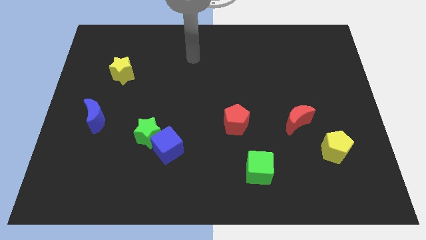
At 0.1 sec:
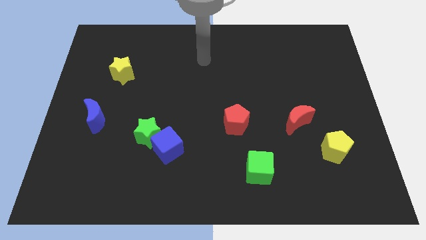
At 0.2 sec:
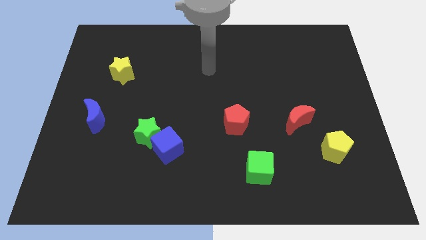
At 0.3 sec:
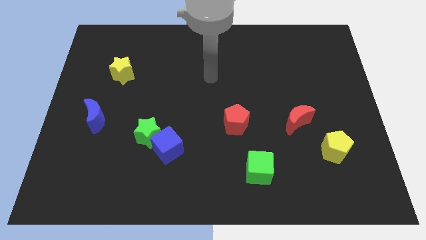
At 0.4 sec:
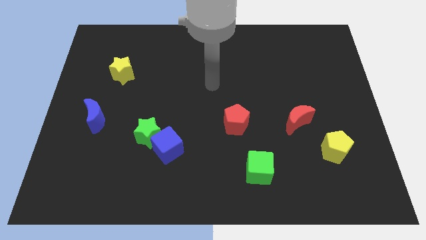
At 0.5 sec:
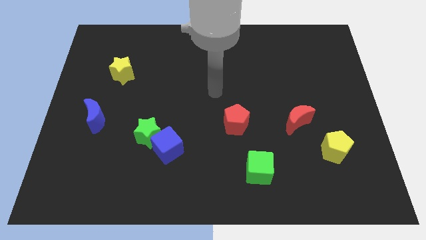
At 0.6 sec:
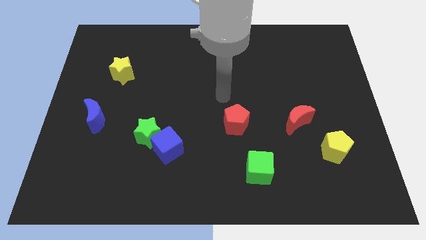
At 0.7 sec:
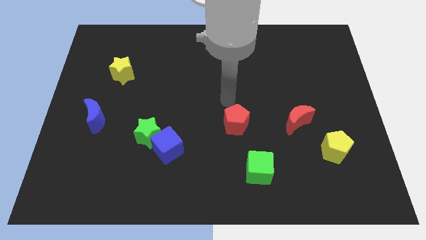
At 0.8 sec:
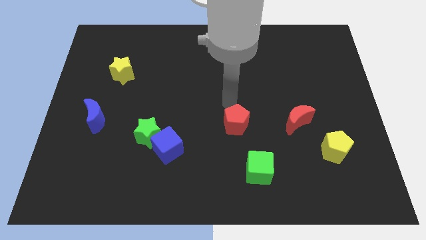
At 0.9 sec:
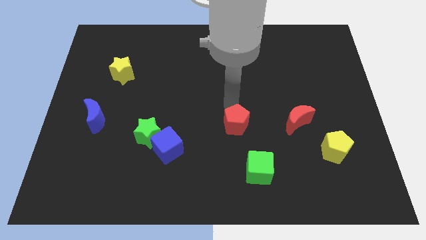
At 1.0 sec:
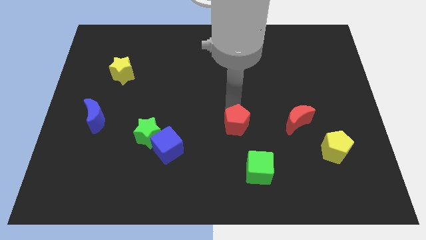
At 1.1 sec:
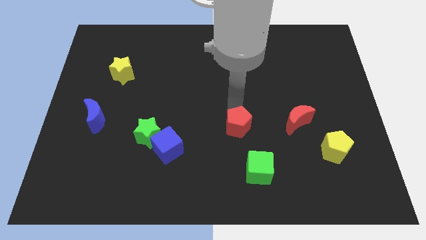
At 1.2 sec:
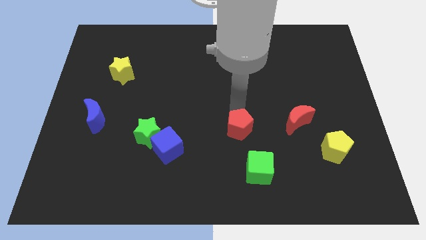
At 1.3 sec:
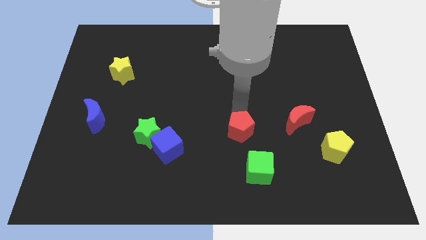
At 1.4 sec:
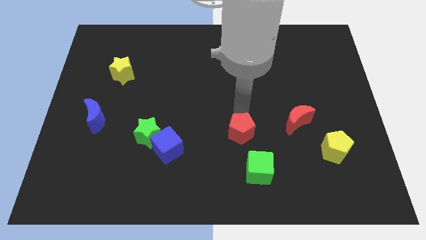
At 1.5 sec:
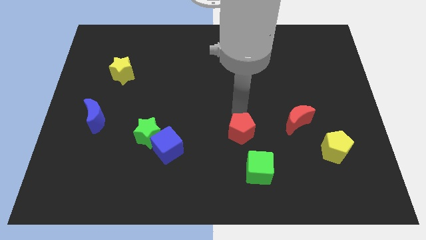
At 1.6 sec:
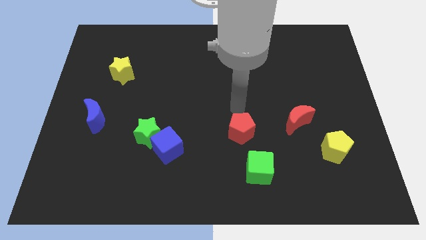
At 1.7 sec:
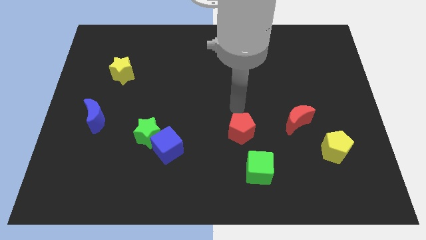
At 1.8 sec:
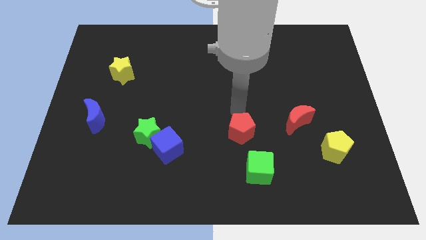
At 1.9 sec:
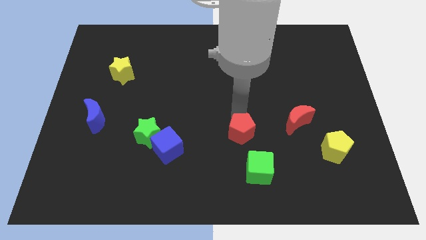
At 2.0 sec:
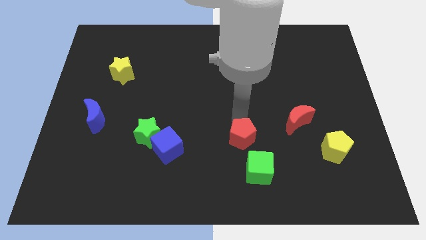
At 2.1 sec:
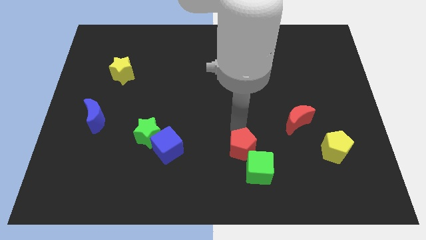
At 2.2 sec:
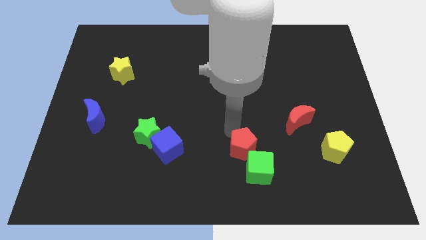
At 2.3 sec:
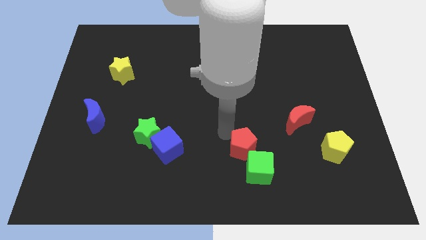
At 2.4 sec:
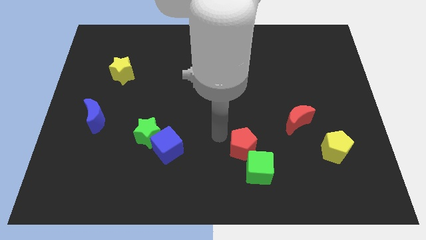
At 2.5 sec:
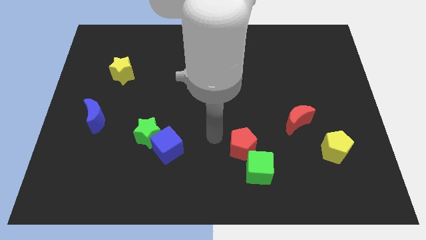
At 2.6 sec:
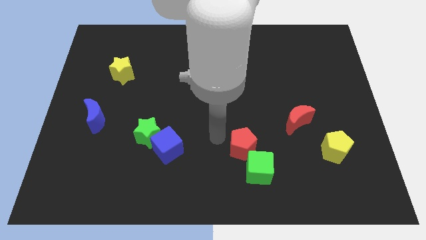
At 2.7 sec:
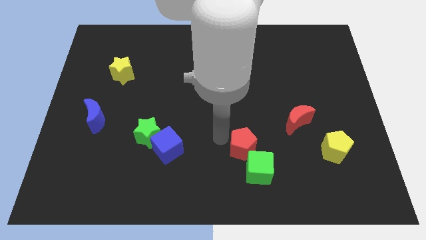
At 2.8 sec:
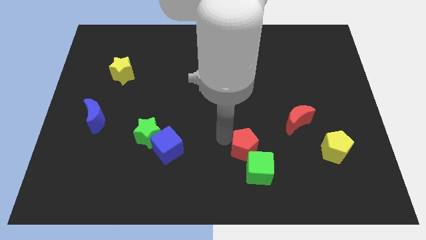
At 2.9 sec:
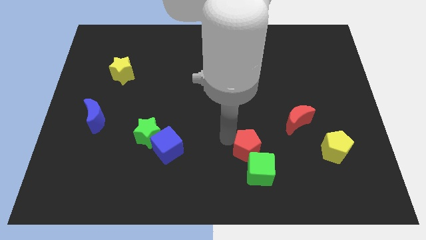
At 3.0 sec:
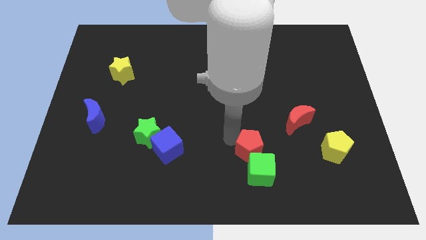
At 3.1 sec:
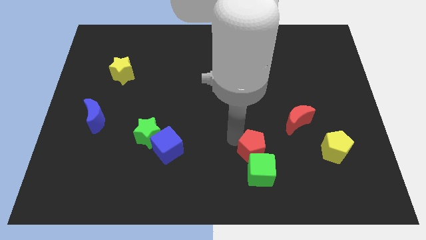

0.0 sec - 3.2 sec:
push the red pentagon somewhat downwards and to the right

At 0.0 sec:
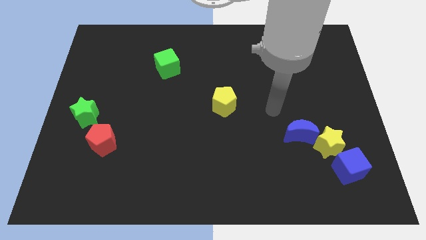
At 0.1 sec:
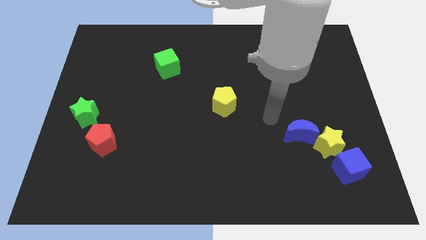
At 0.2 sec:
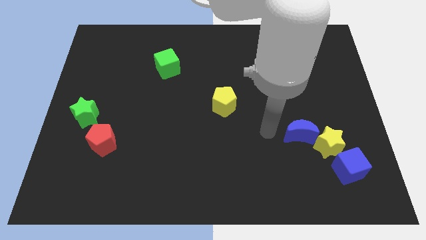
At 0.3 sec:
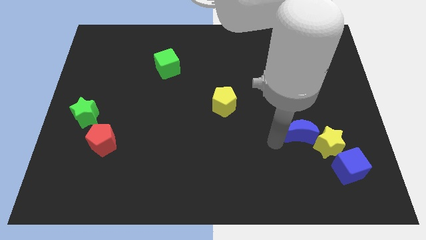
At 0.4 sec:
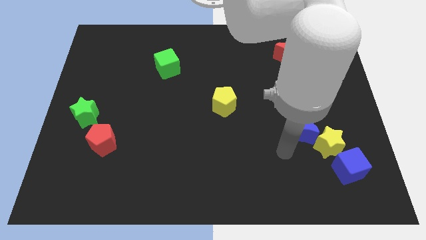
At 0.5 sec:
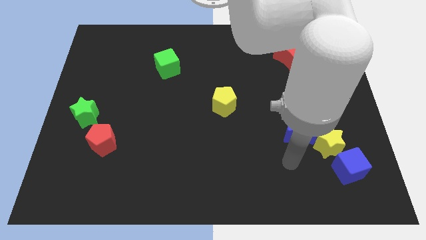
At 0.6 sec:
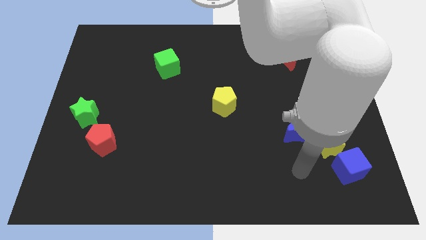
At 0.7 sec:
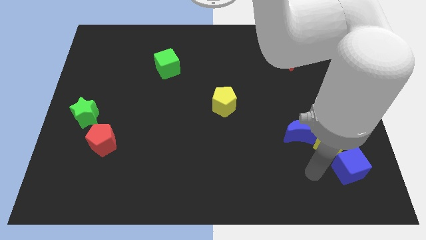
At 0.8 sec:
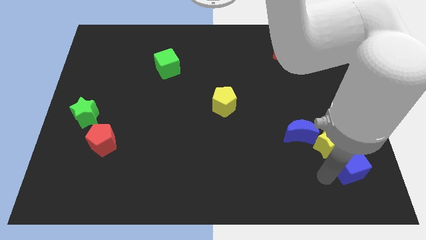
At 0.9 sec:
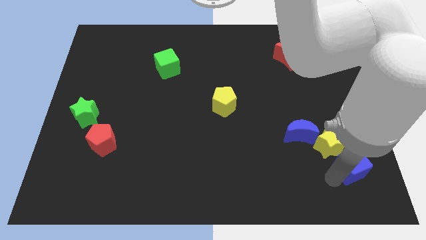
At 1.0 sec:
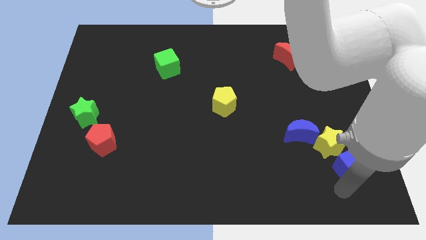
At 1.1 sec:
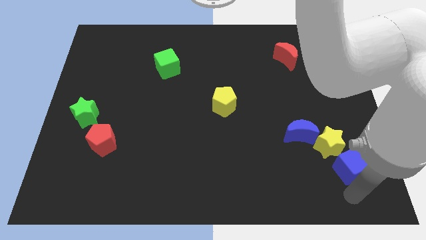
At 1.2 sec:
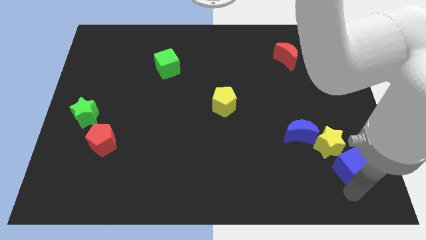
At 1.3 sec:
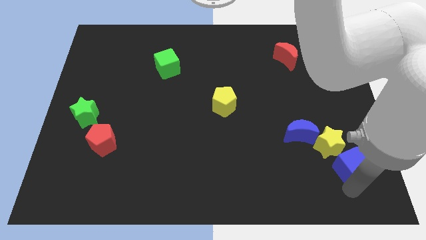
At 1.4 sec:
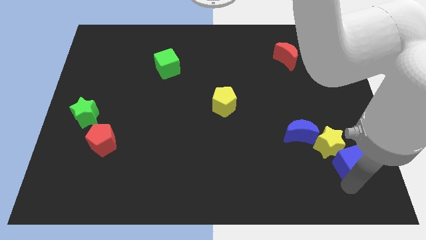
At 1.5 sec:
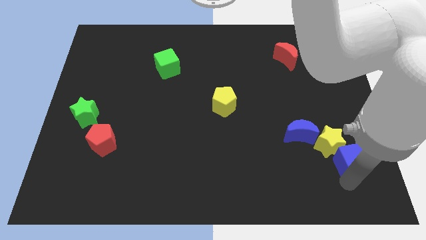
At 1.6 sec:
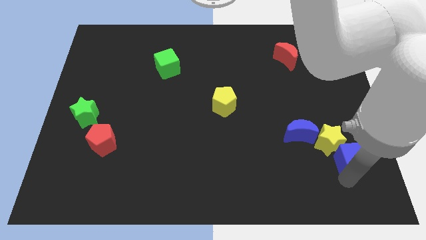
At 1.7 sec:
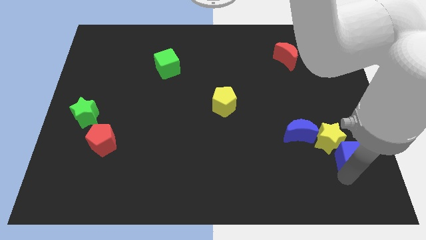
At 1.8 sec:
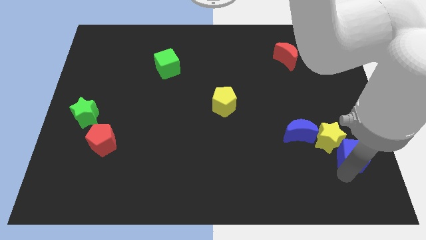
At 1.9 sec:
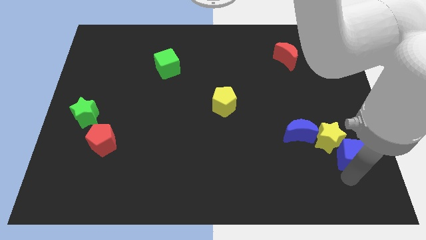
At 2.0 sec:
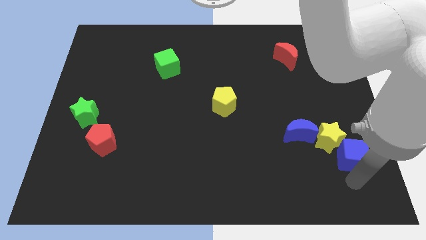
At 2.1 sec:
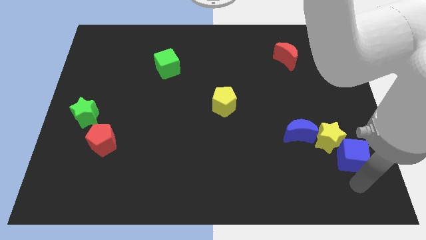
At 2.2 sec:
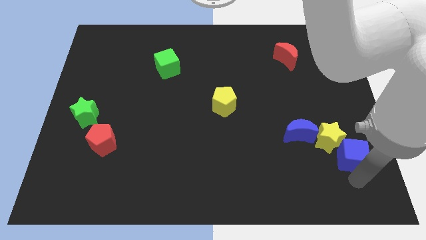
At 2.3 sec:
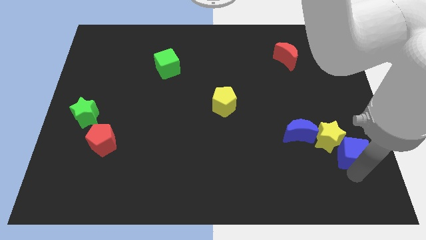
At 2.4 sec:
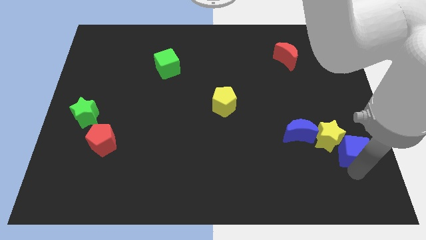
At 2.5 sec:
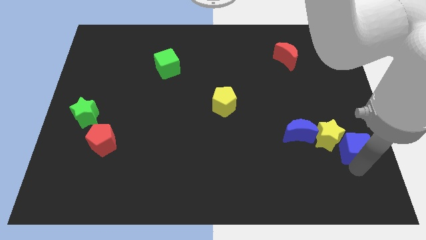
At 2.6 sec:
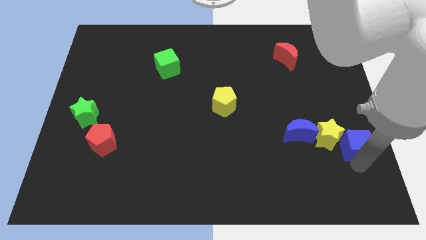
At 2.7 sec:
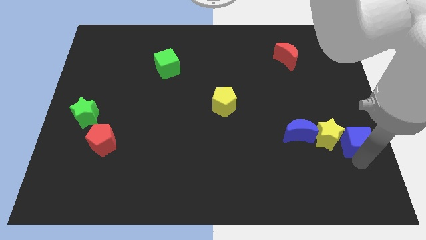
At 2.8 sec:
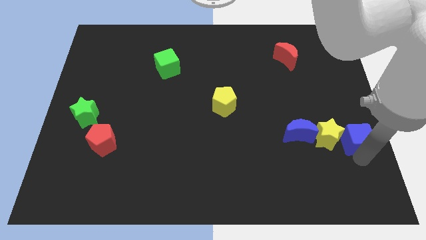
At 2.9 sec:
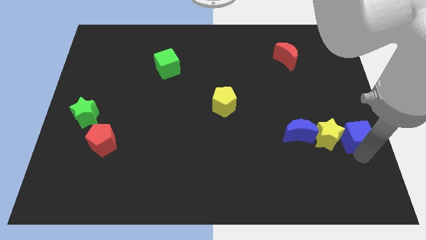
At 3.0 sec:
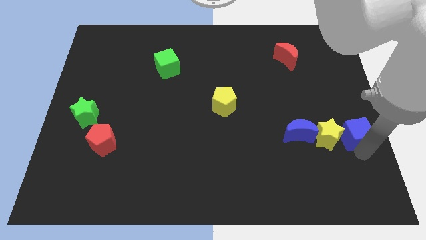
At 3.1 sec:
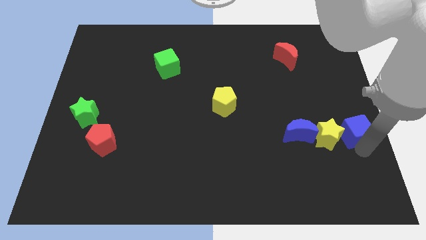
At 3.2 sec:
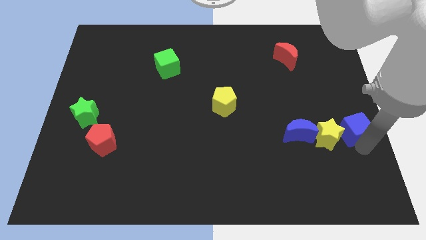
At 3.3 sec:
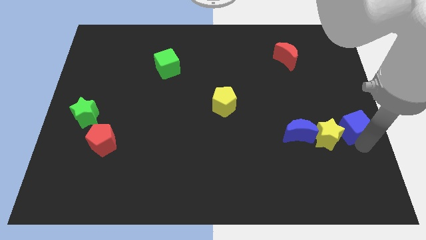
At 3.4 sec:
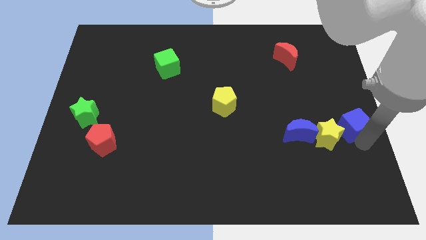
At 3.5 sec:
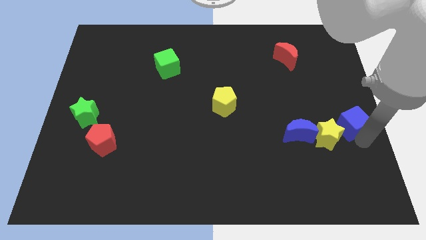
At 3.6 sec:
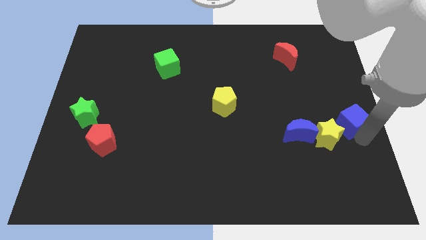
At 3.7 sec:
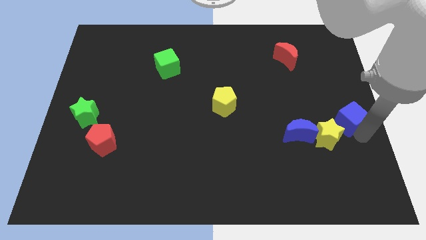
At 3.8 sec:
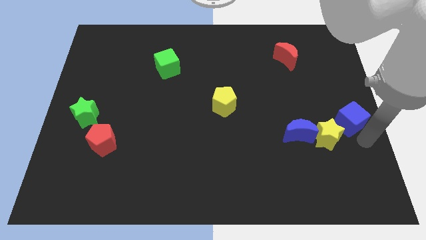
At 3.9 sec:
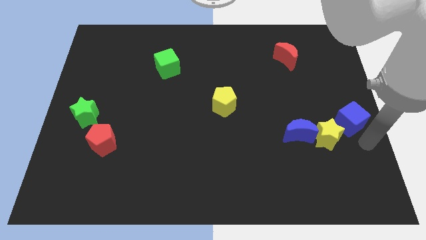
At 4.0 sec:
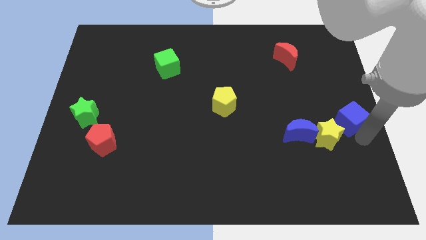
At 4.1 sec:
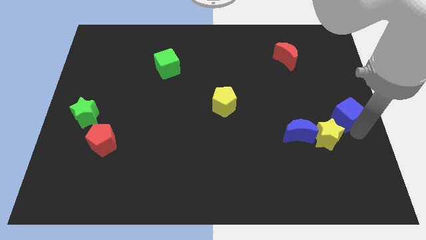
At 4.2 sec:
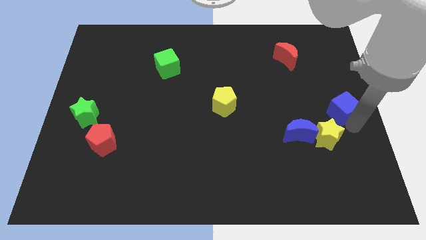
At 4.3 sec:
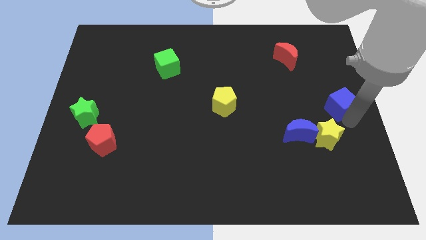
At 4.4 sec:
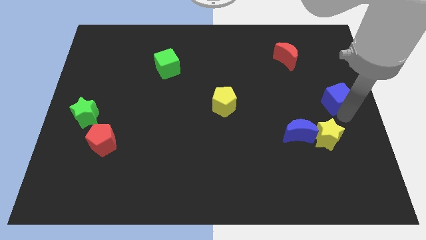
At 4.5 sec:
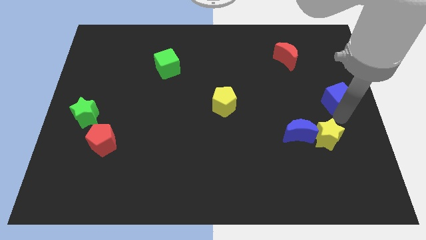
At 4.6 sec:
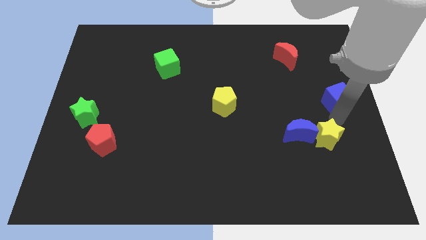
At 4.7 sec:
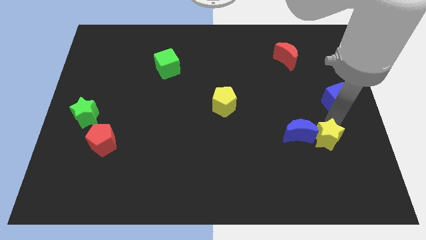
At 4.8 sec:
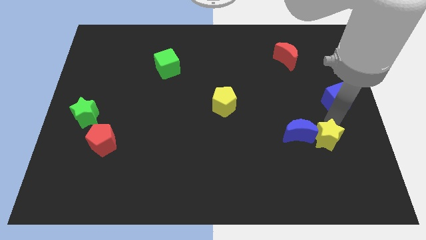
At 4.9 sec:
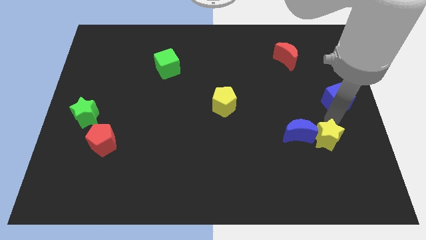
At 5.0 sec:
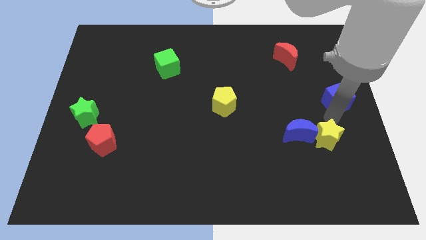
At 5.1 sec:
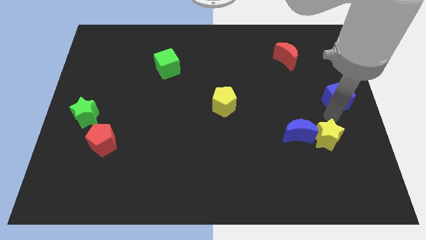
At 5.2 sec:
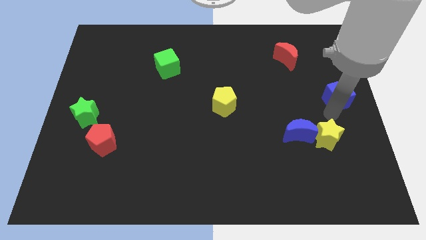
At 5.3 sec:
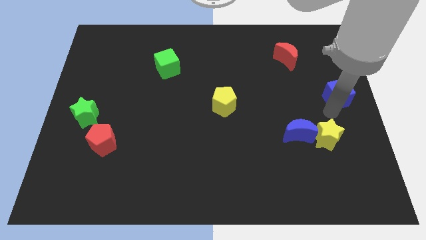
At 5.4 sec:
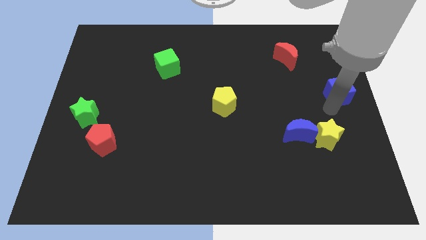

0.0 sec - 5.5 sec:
slide the blue cube upwards
